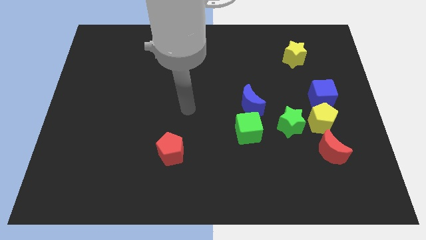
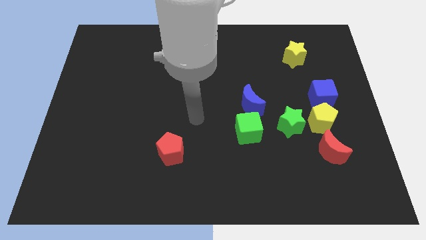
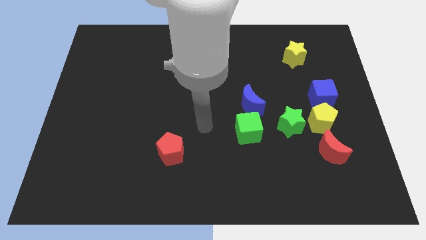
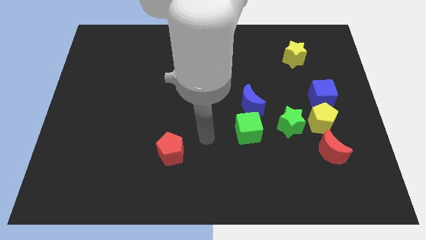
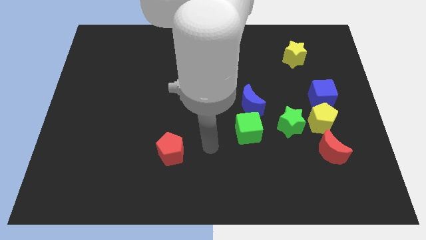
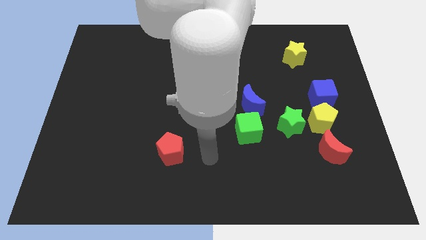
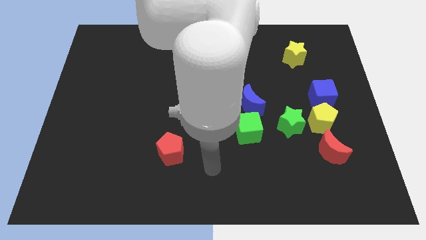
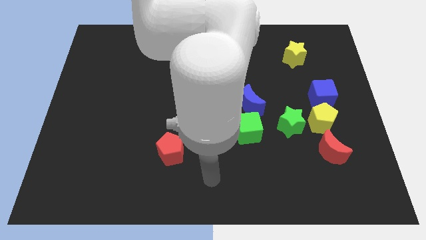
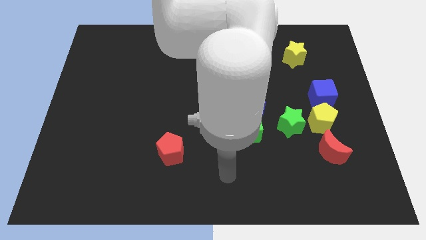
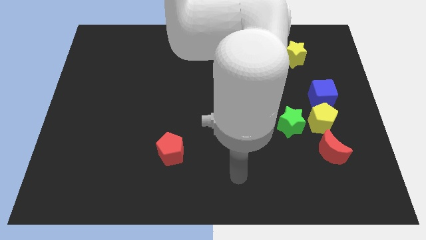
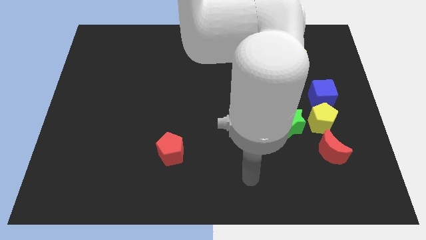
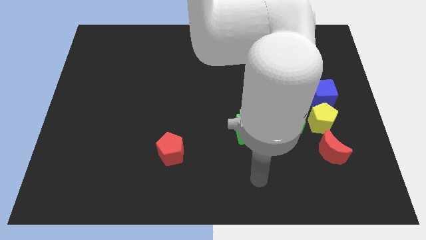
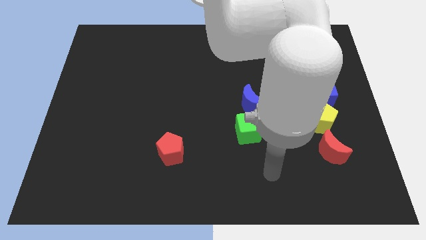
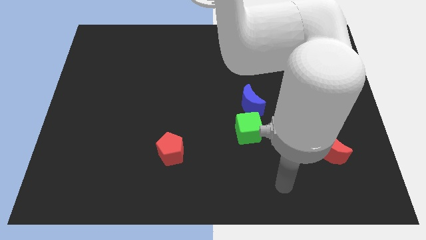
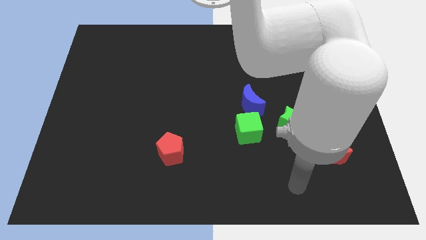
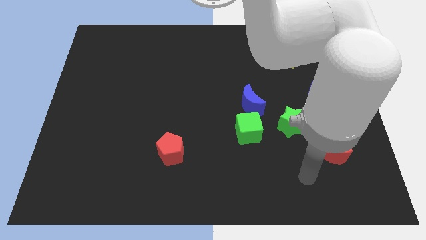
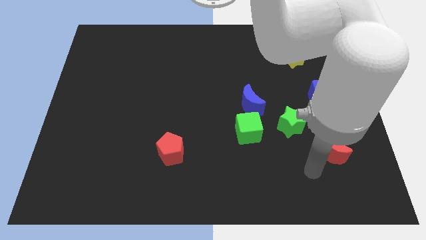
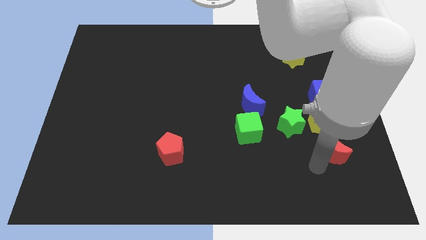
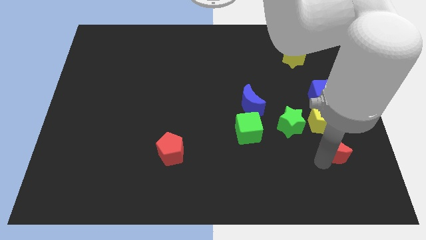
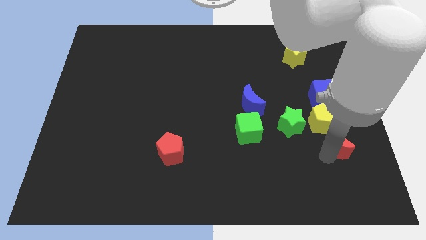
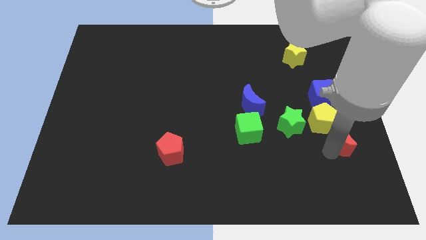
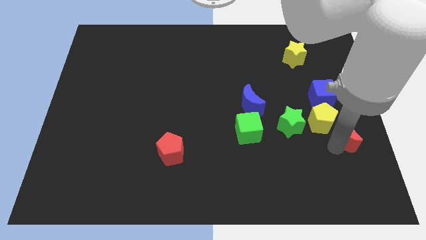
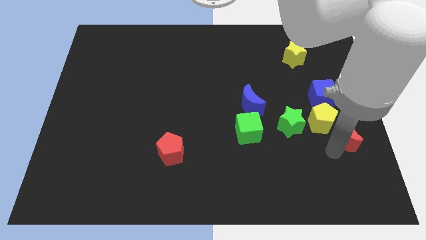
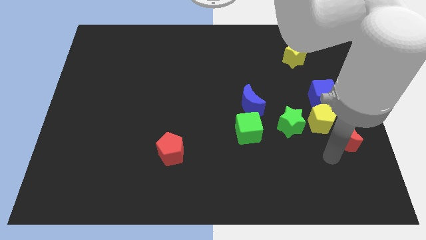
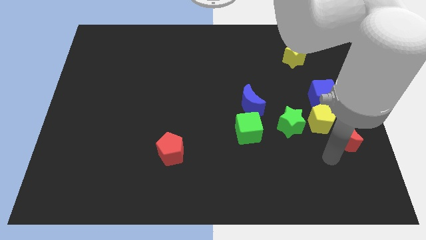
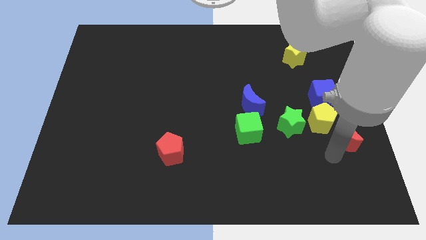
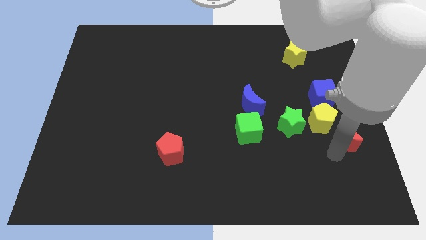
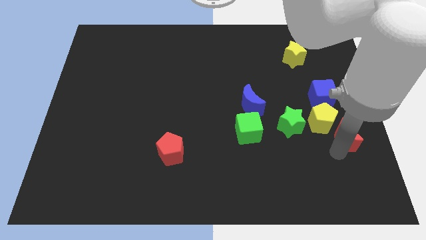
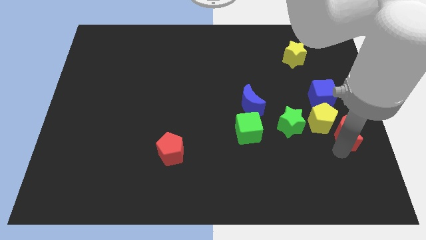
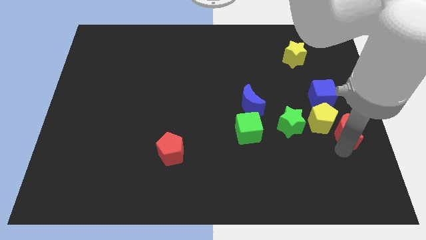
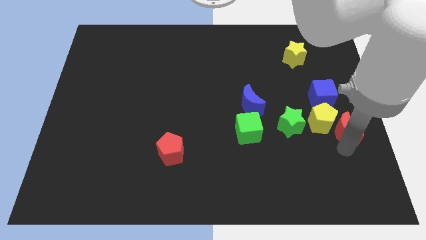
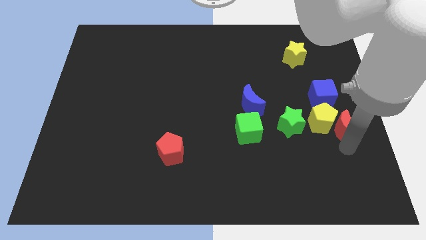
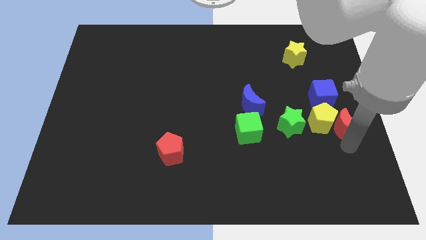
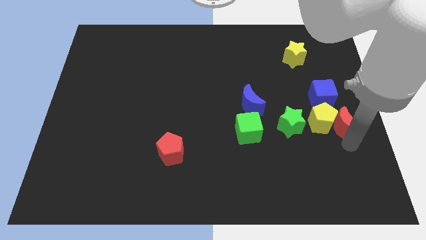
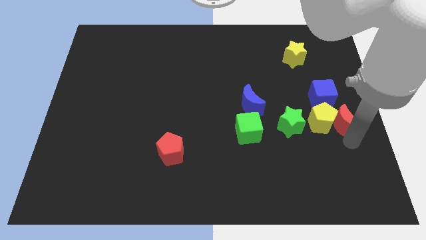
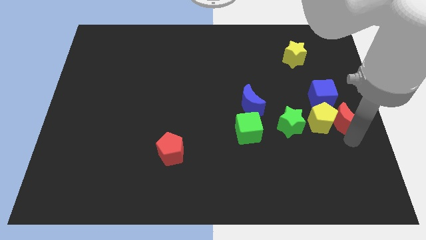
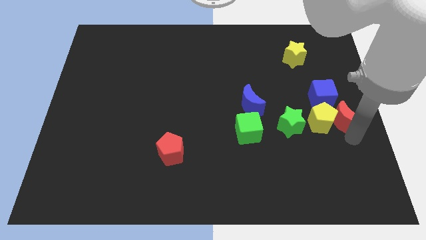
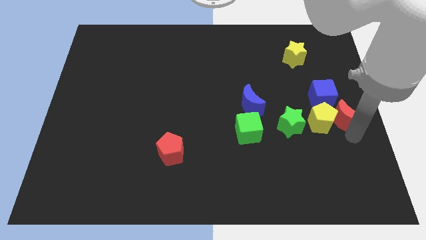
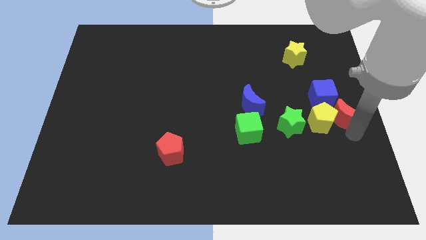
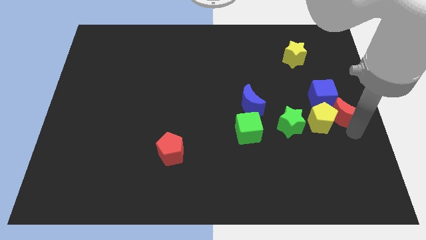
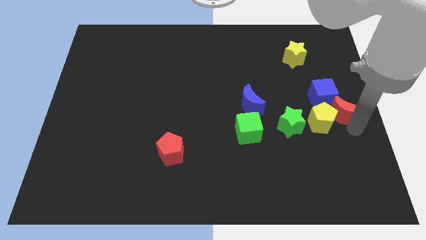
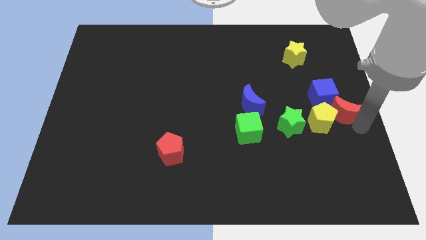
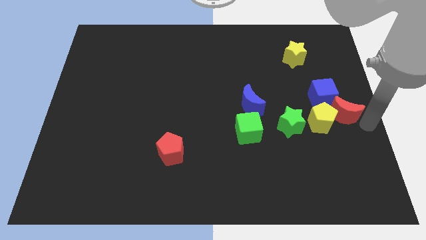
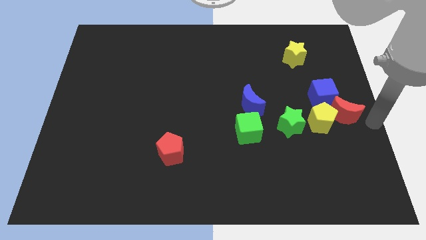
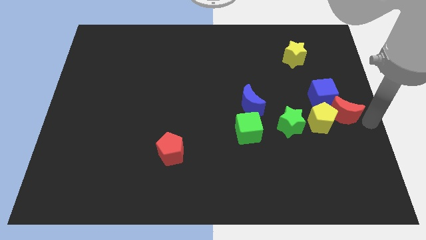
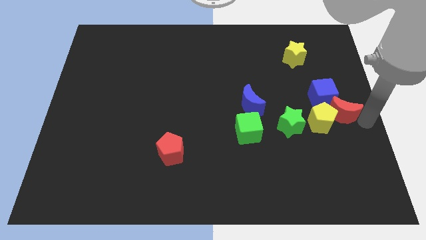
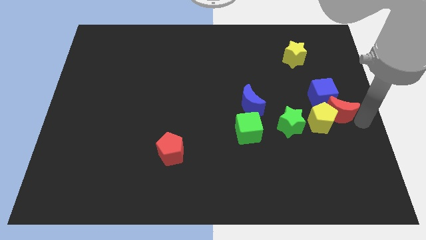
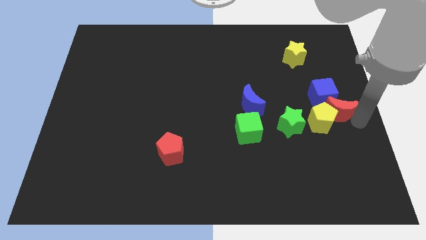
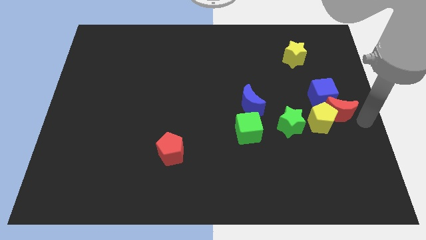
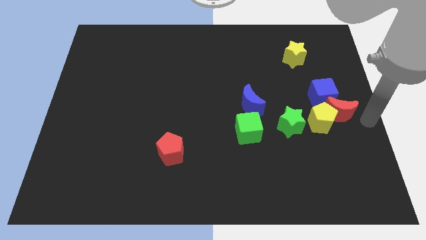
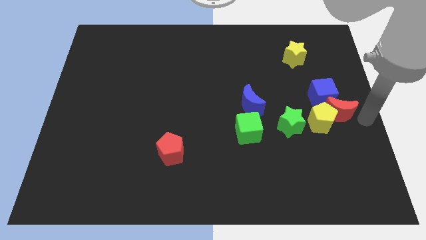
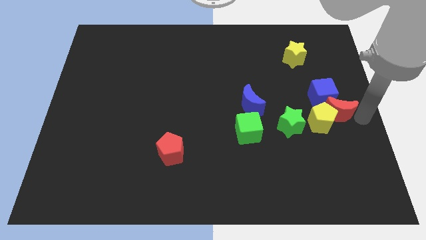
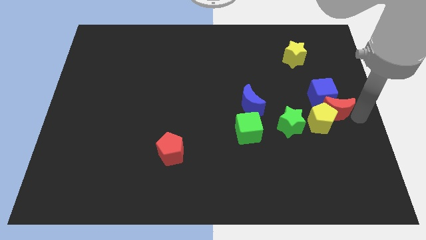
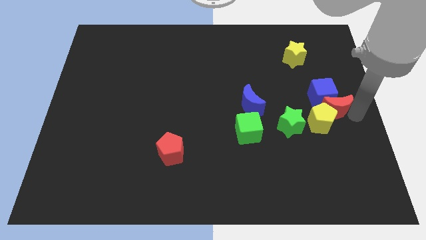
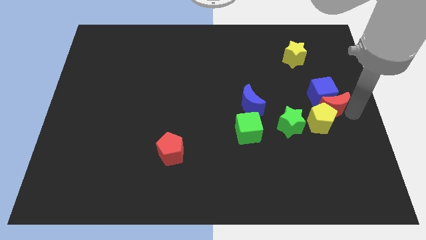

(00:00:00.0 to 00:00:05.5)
push the red moon to the top right side of the green star

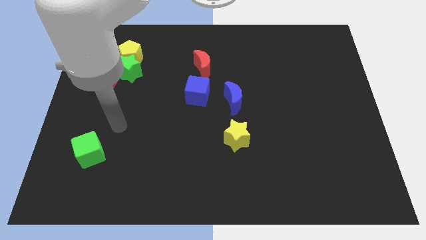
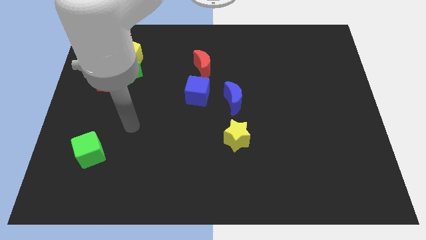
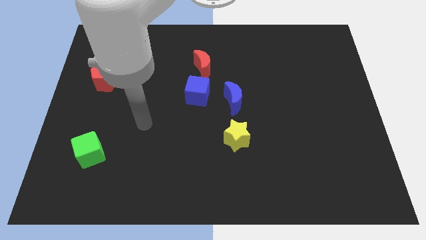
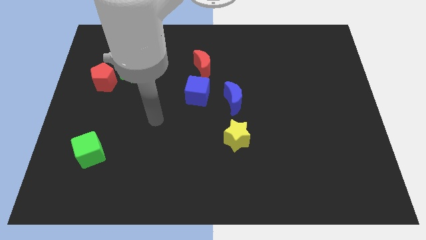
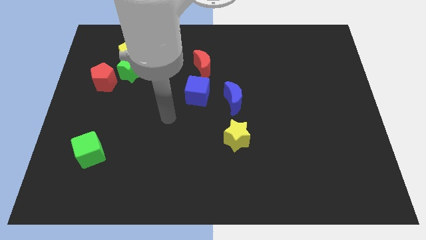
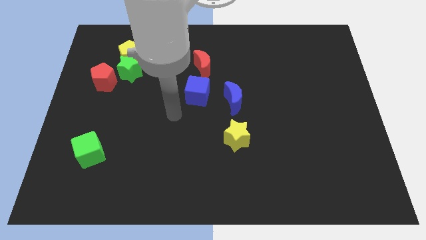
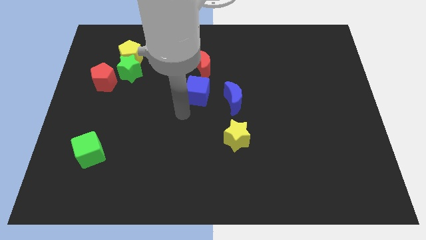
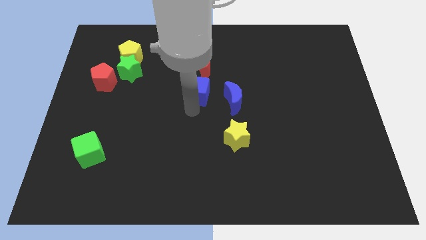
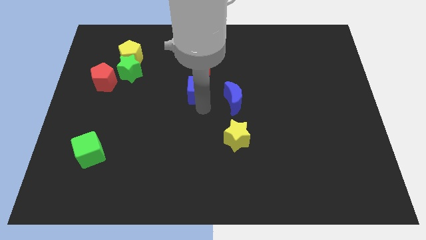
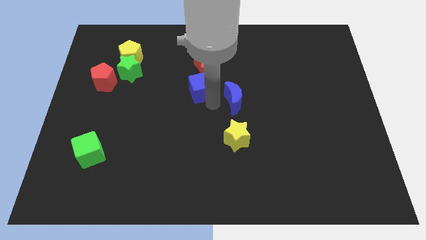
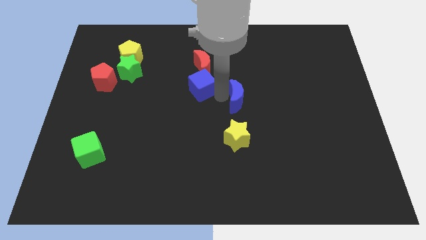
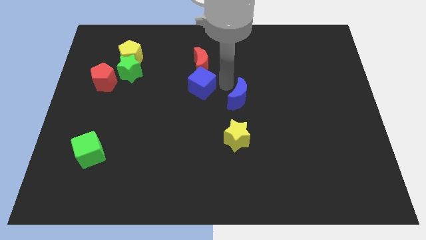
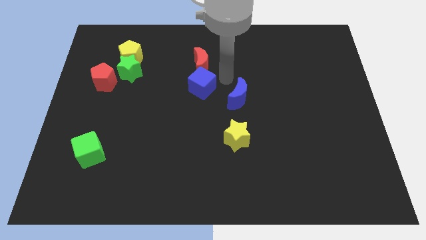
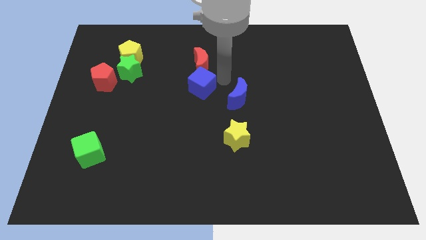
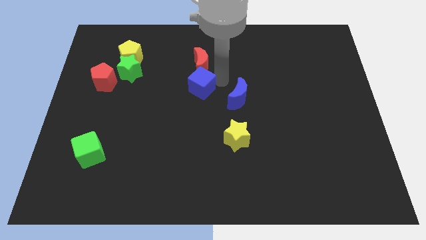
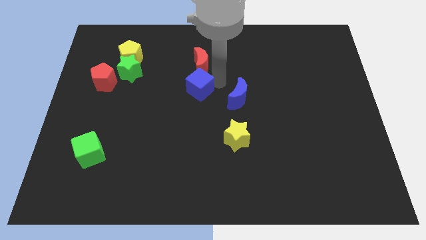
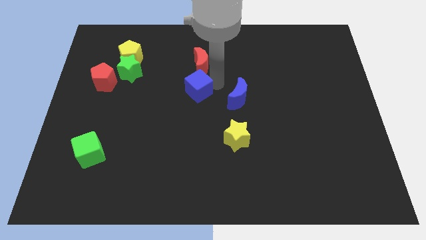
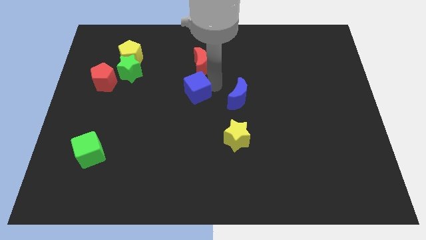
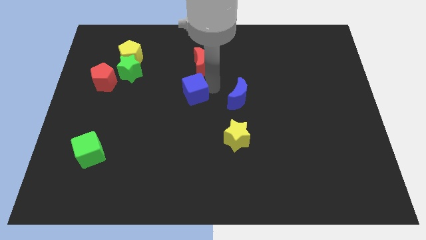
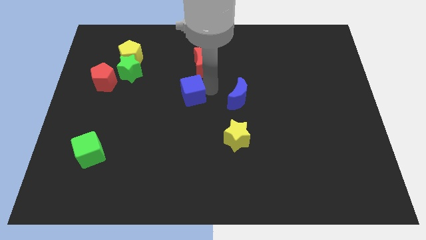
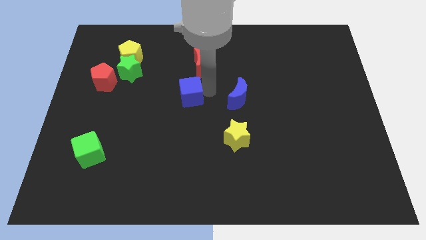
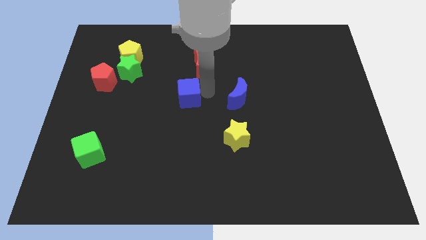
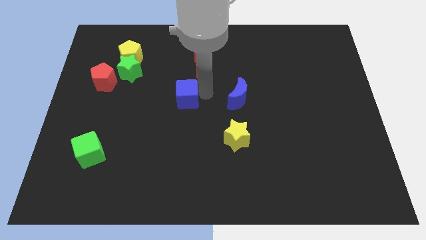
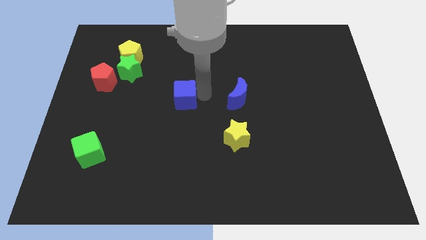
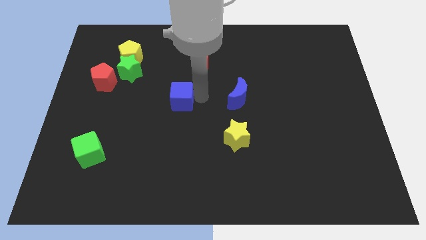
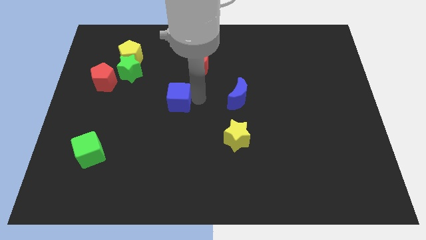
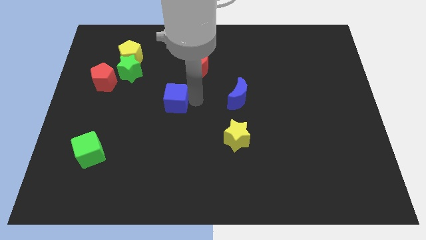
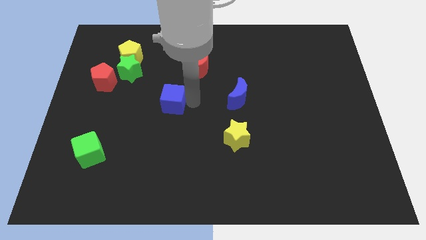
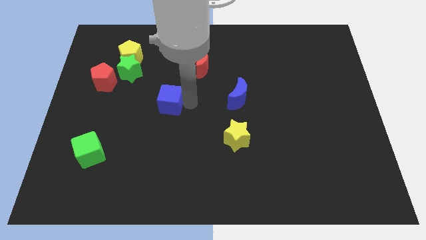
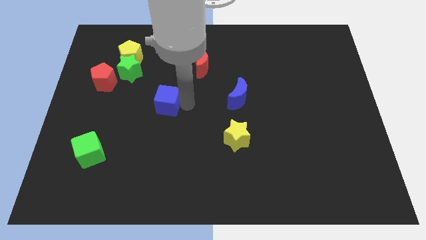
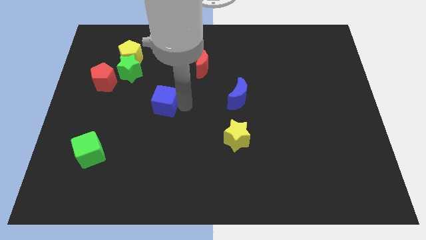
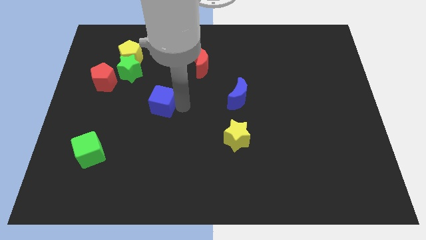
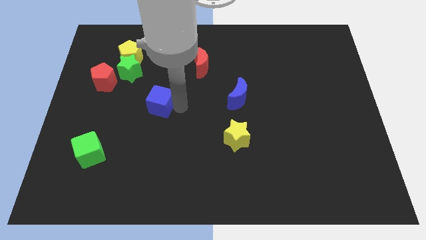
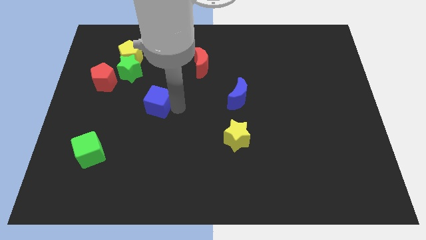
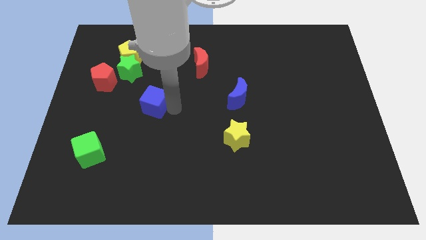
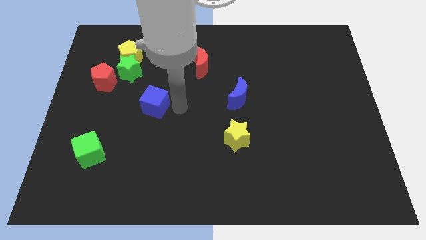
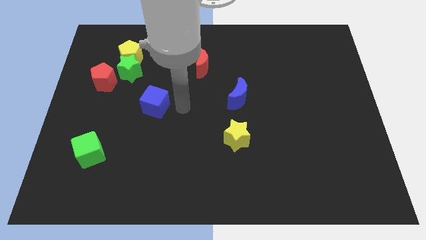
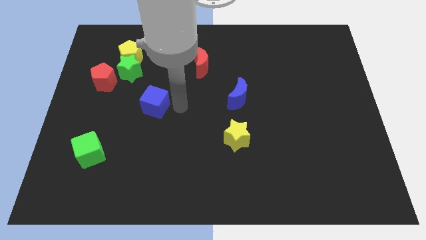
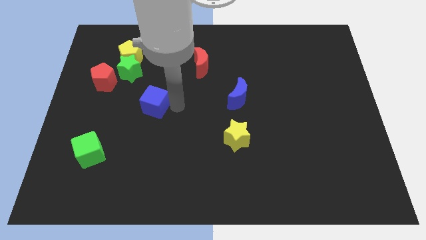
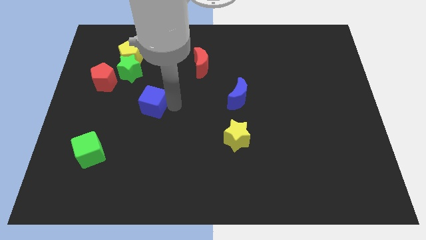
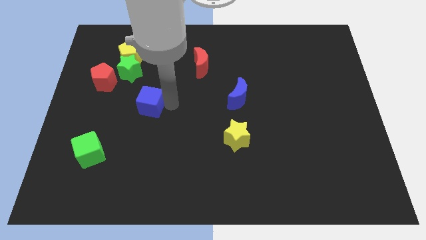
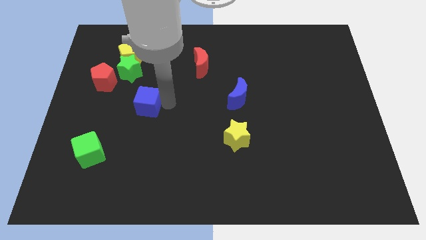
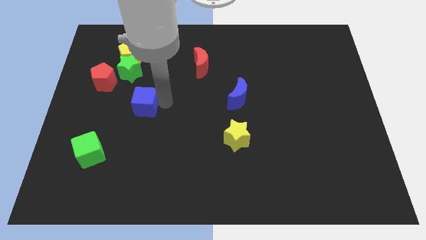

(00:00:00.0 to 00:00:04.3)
slide the blue cube to the bottom side of the green star
